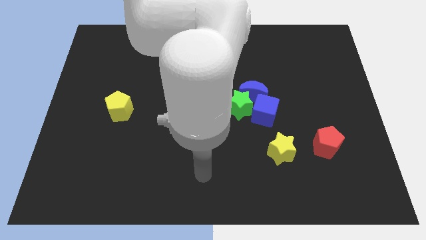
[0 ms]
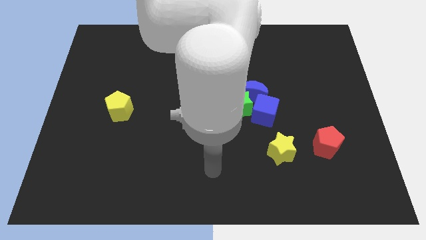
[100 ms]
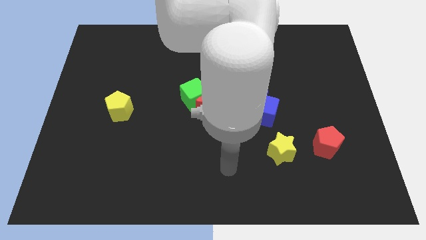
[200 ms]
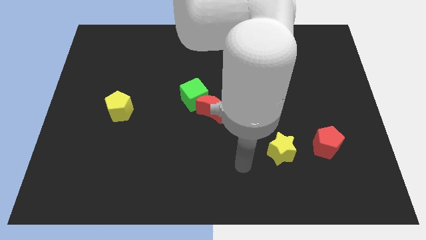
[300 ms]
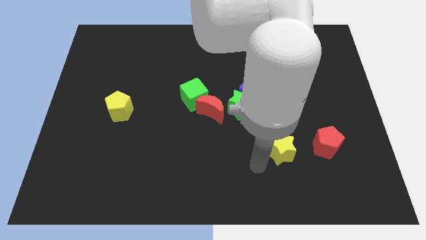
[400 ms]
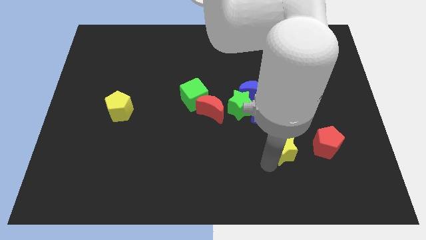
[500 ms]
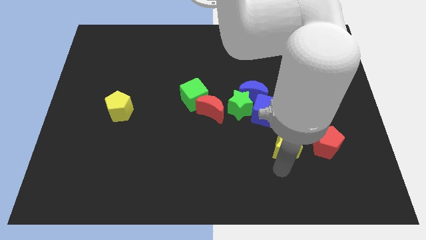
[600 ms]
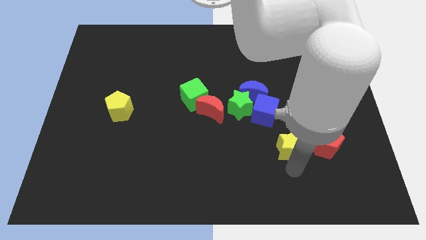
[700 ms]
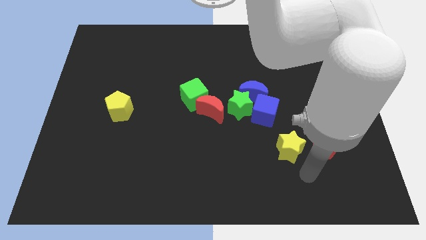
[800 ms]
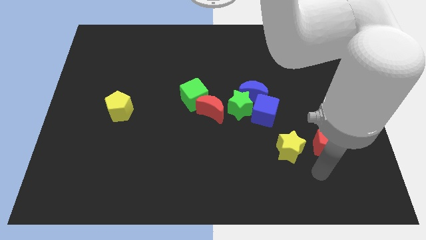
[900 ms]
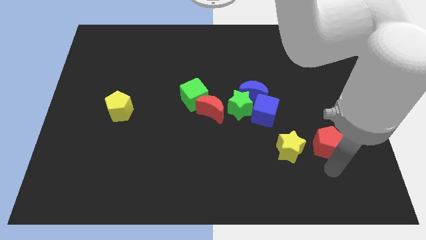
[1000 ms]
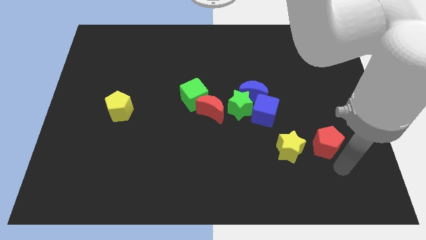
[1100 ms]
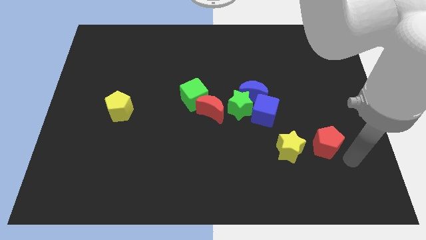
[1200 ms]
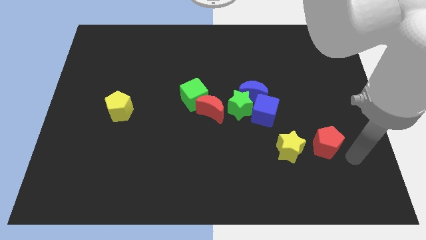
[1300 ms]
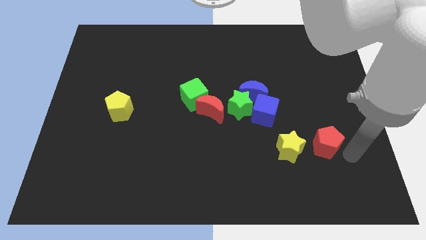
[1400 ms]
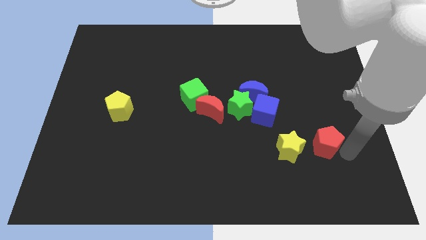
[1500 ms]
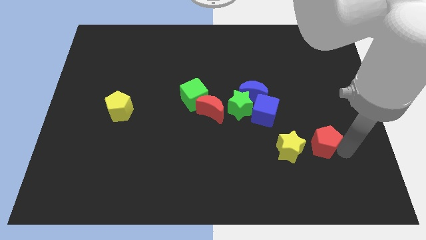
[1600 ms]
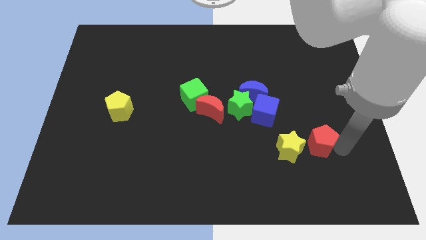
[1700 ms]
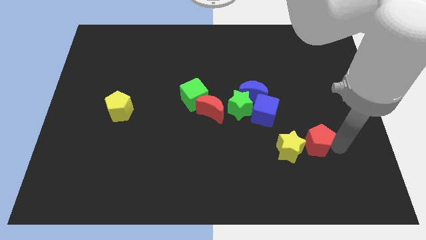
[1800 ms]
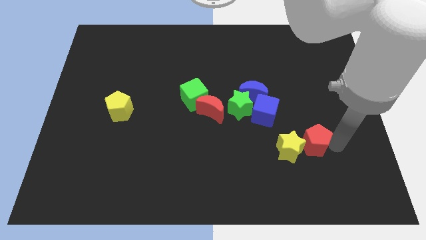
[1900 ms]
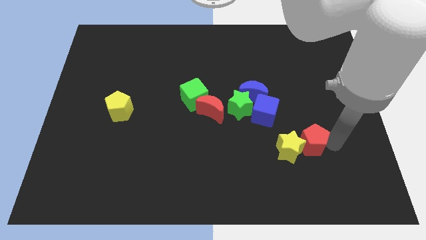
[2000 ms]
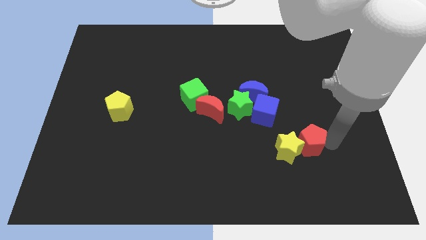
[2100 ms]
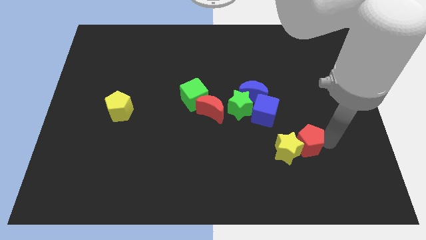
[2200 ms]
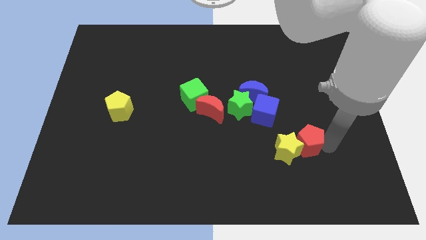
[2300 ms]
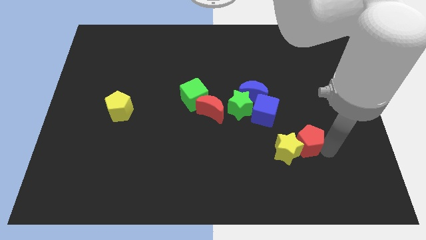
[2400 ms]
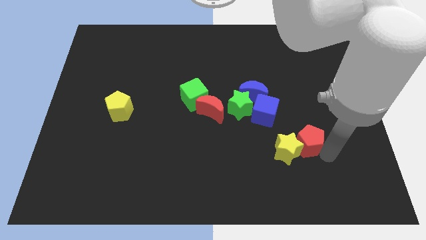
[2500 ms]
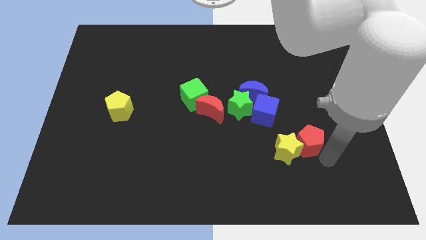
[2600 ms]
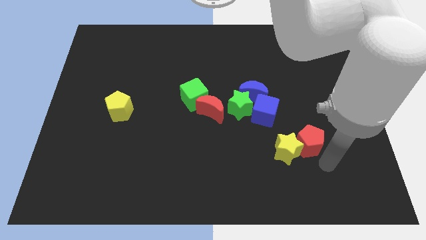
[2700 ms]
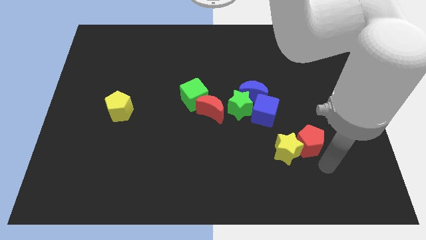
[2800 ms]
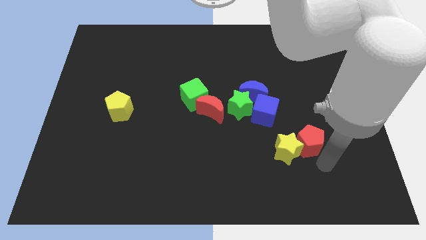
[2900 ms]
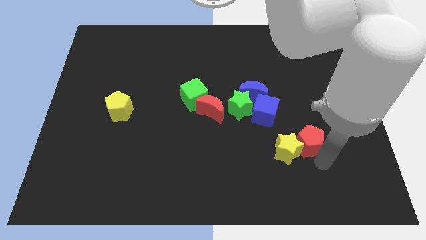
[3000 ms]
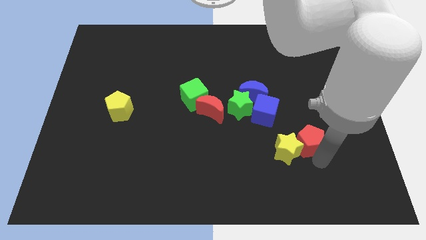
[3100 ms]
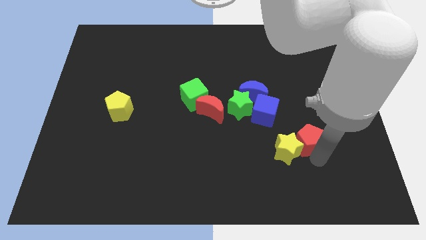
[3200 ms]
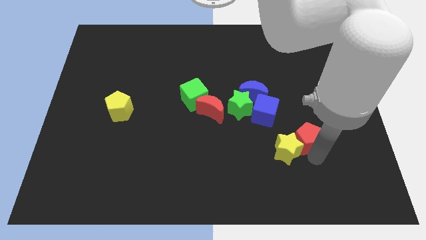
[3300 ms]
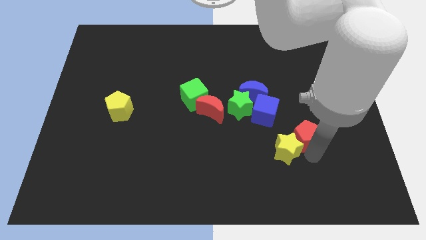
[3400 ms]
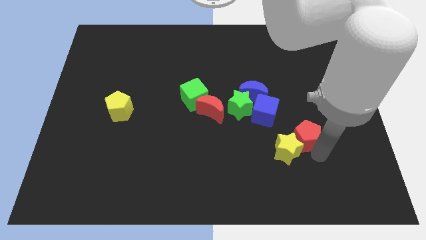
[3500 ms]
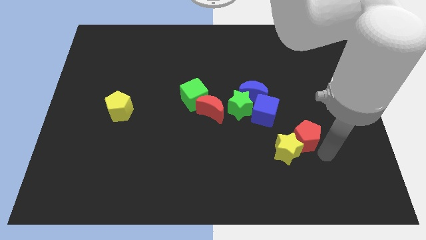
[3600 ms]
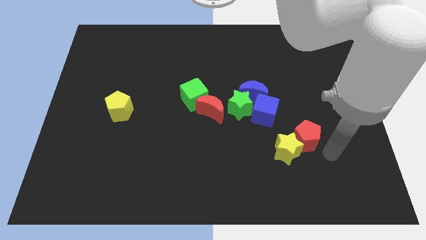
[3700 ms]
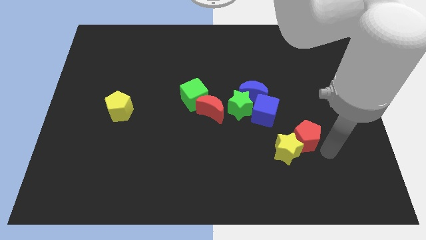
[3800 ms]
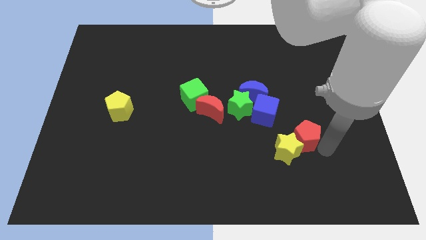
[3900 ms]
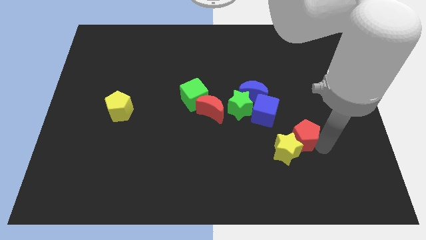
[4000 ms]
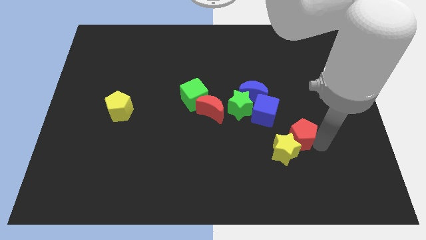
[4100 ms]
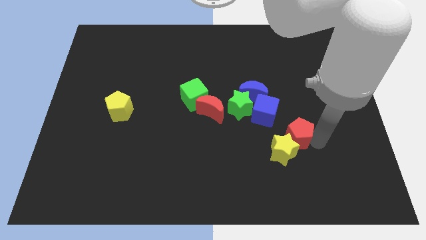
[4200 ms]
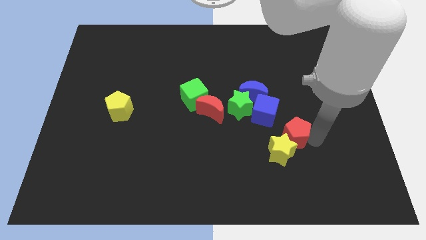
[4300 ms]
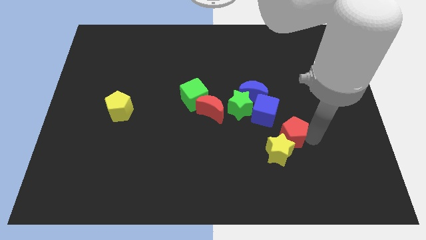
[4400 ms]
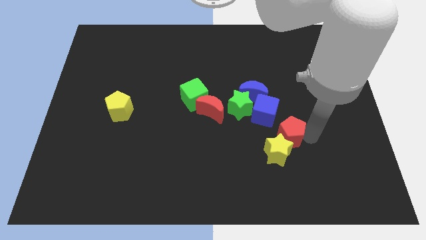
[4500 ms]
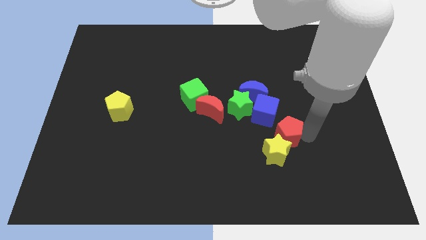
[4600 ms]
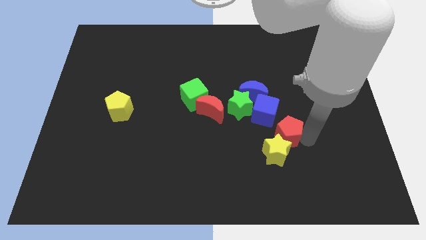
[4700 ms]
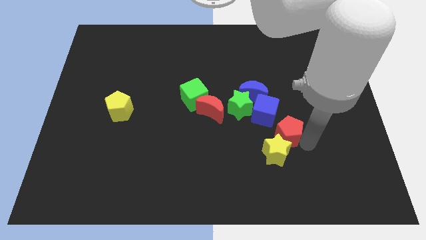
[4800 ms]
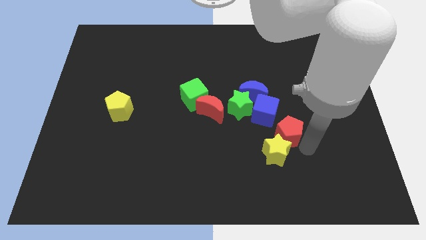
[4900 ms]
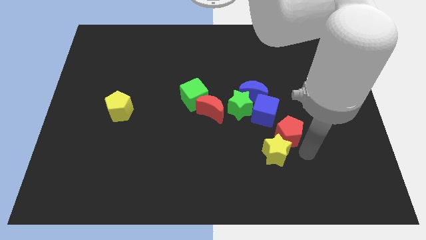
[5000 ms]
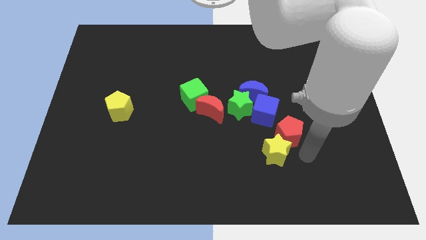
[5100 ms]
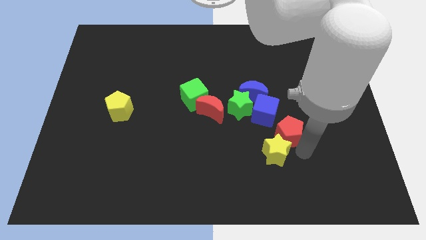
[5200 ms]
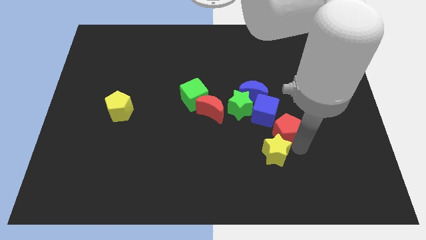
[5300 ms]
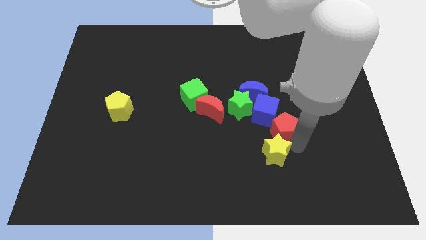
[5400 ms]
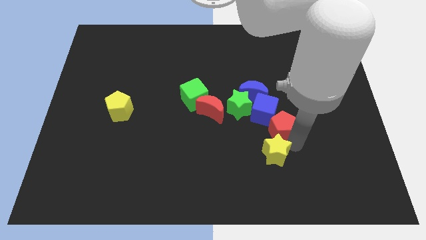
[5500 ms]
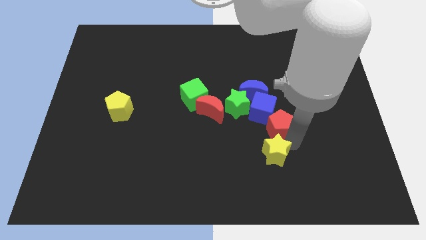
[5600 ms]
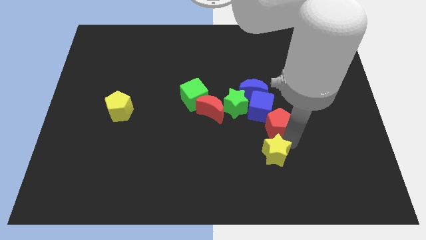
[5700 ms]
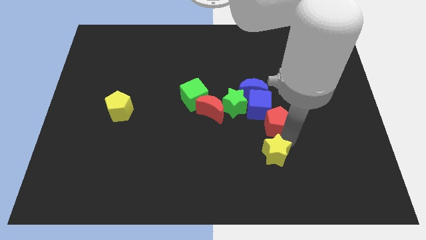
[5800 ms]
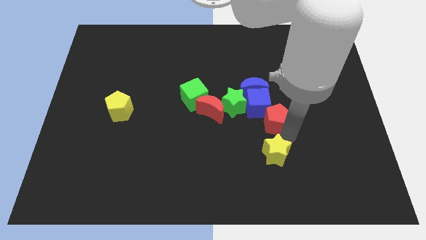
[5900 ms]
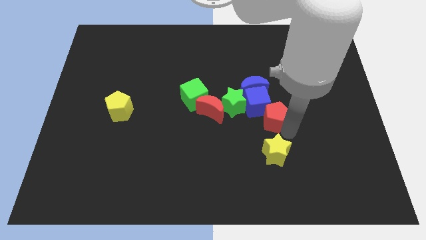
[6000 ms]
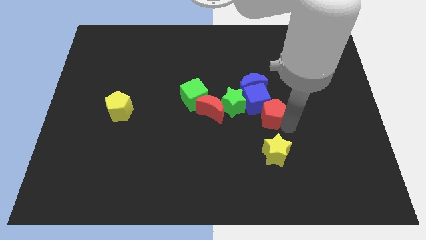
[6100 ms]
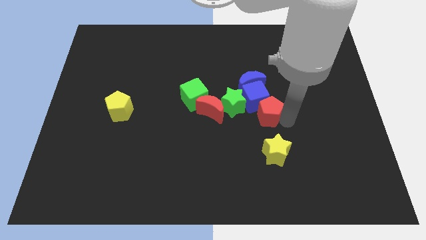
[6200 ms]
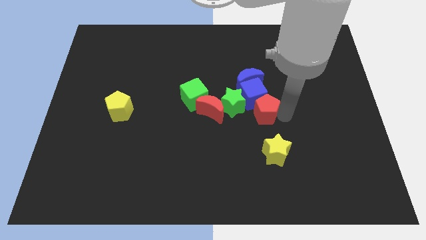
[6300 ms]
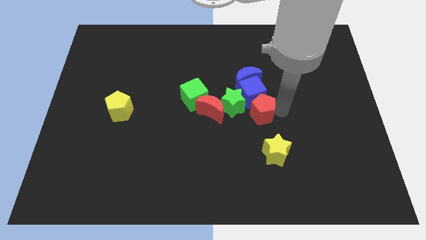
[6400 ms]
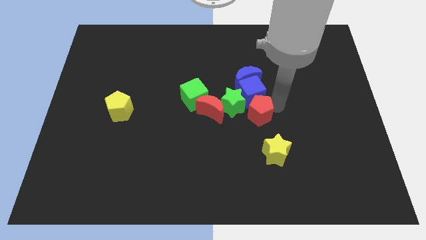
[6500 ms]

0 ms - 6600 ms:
slide the red pentagon next to the green star

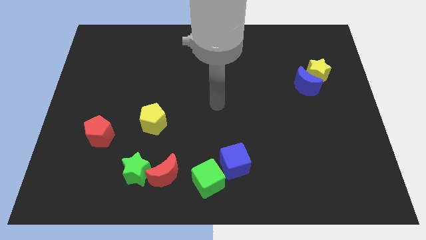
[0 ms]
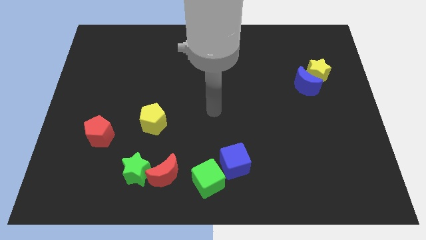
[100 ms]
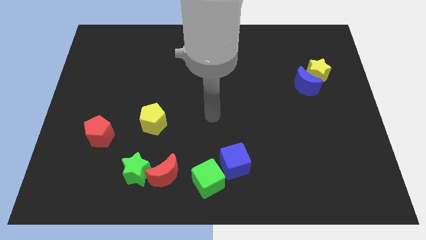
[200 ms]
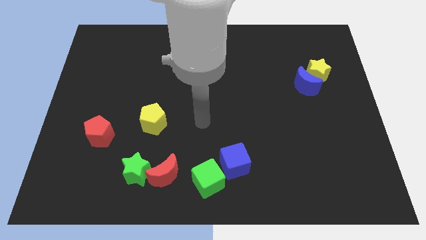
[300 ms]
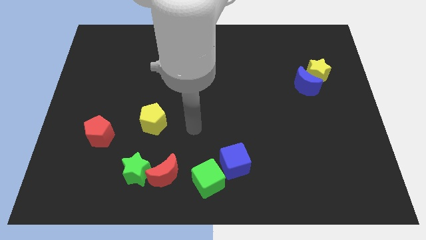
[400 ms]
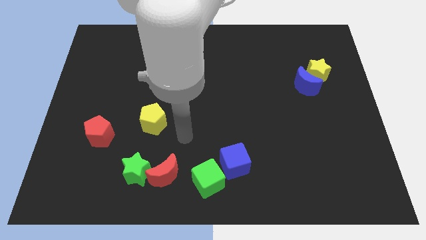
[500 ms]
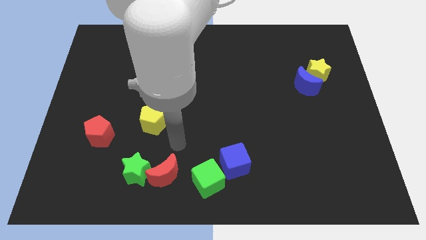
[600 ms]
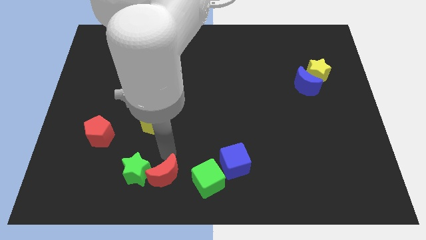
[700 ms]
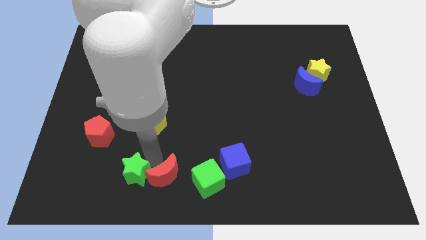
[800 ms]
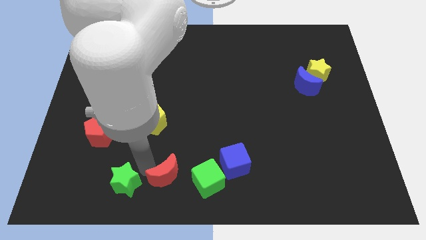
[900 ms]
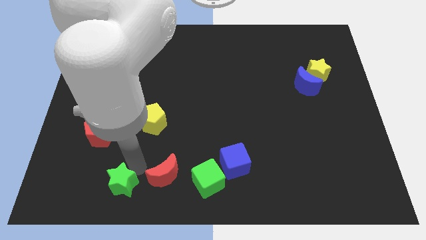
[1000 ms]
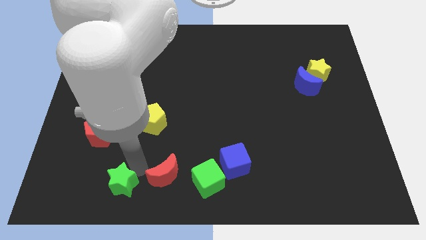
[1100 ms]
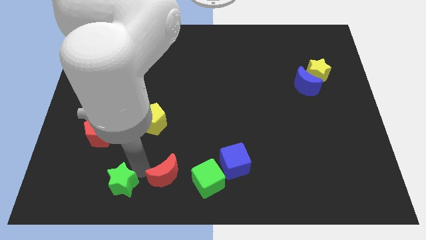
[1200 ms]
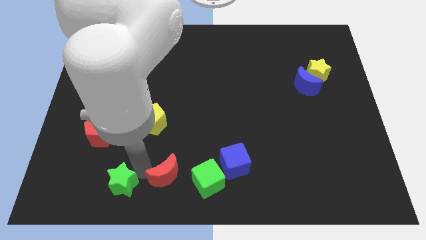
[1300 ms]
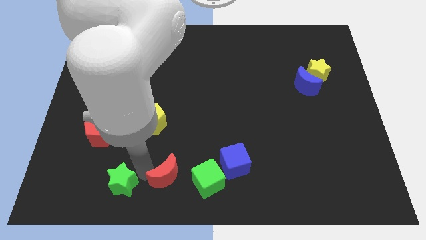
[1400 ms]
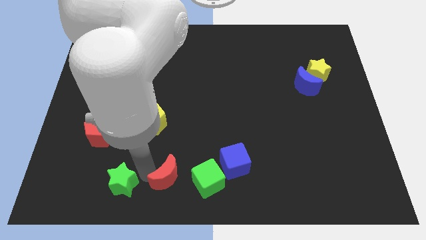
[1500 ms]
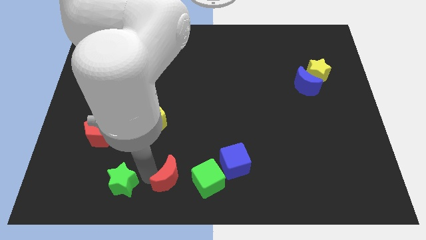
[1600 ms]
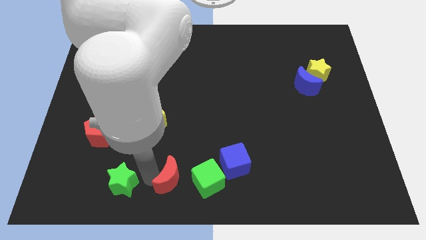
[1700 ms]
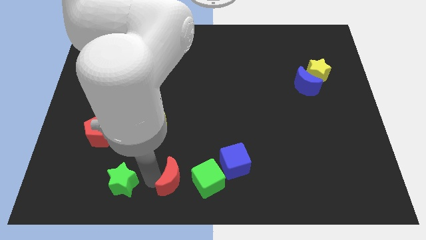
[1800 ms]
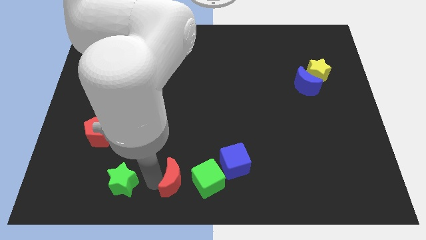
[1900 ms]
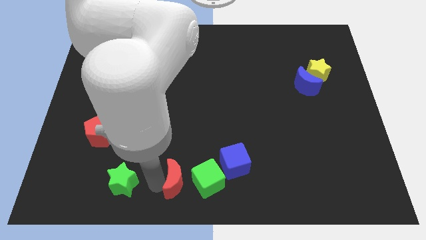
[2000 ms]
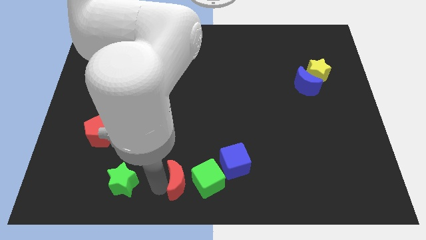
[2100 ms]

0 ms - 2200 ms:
move the red moon to the green cube
